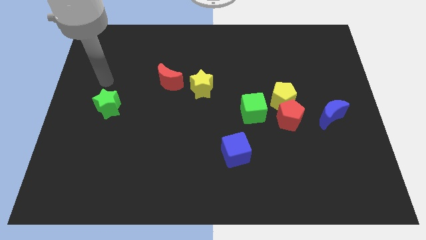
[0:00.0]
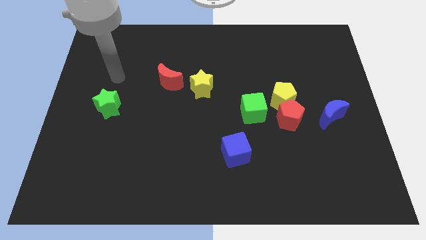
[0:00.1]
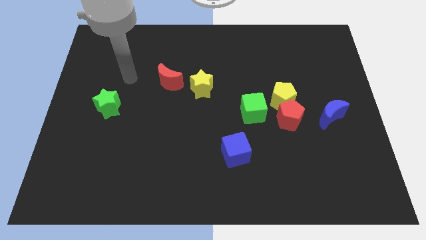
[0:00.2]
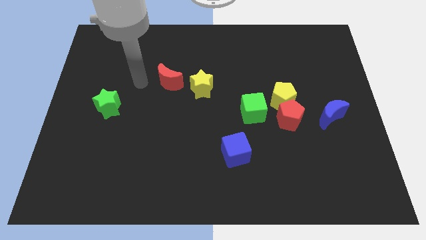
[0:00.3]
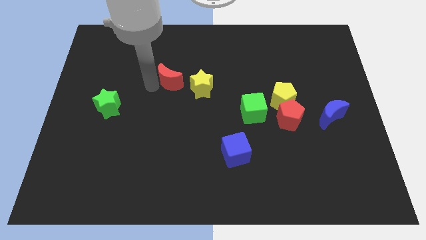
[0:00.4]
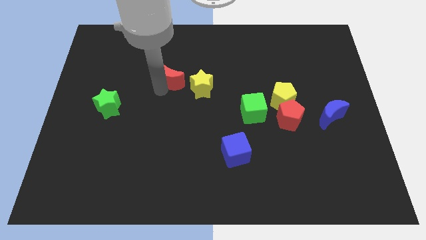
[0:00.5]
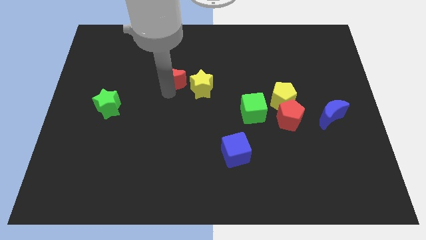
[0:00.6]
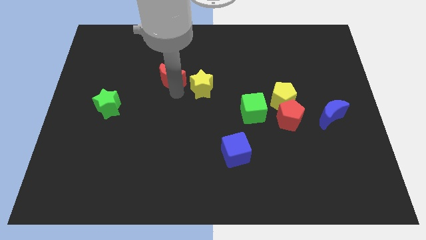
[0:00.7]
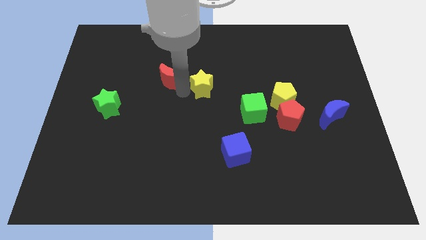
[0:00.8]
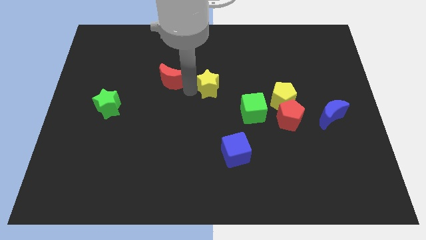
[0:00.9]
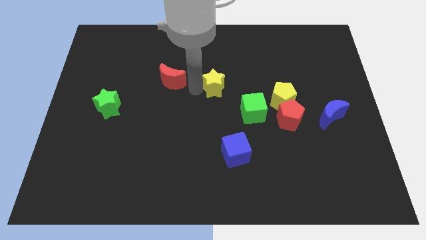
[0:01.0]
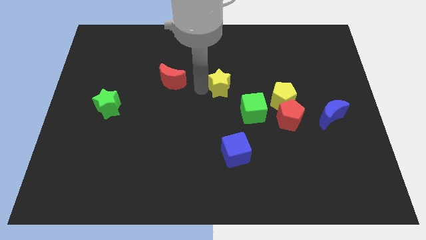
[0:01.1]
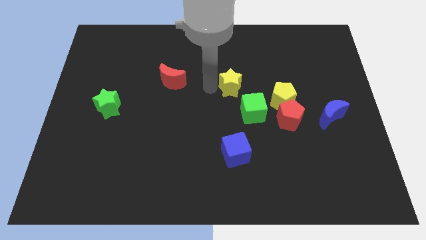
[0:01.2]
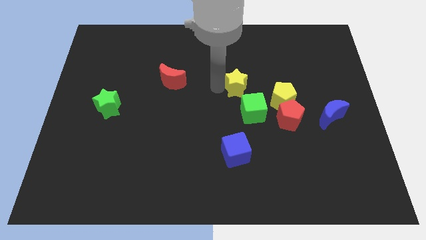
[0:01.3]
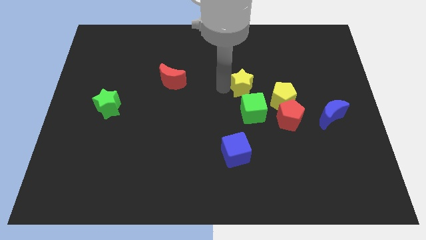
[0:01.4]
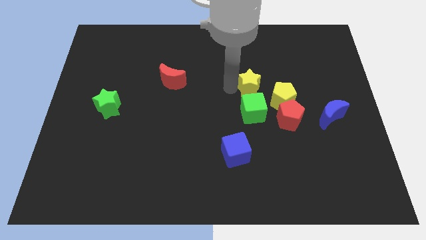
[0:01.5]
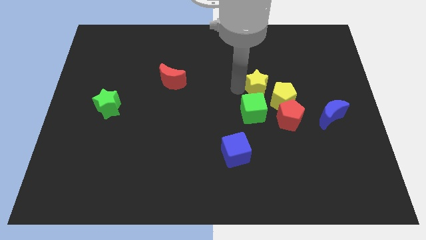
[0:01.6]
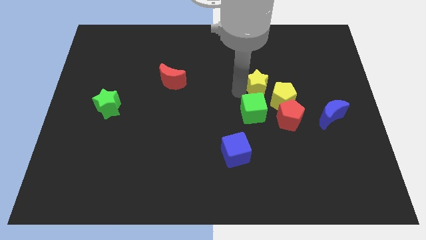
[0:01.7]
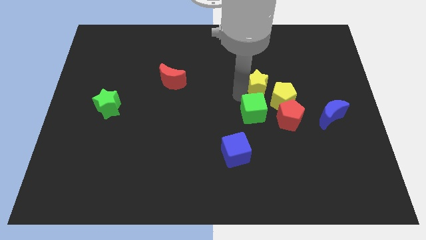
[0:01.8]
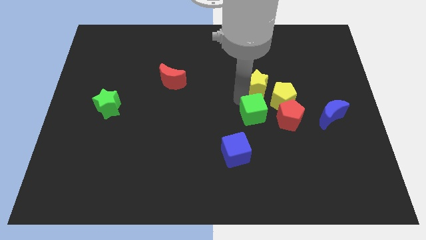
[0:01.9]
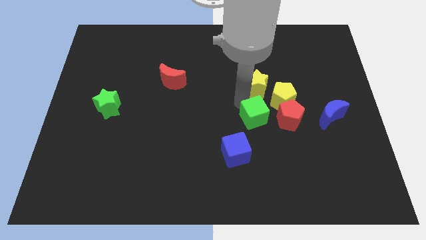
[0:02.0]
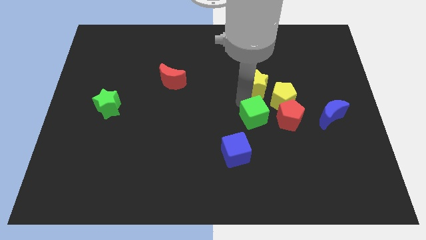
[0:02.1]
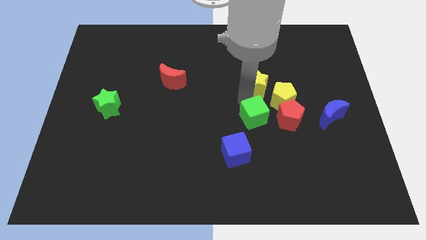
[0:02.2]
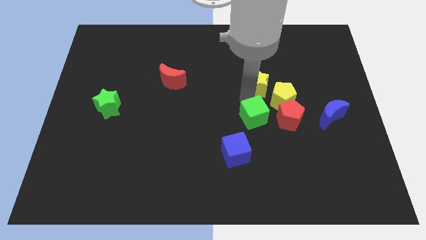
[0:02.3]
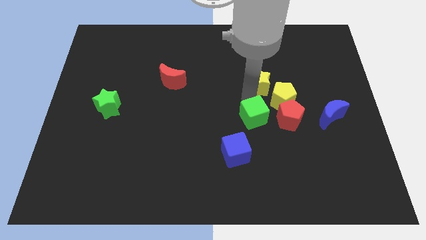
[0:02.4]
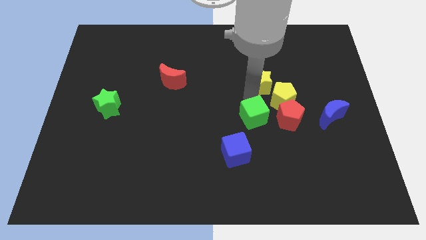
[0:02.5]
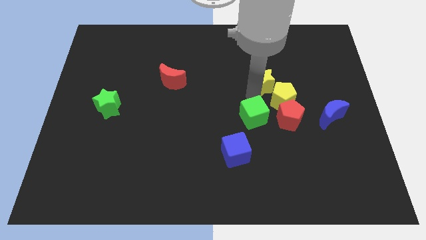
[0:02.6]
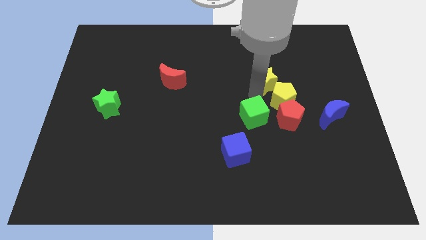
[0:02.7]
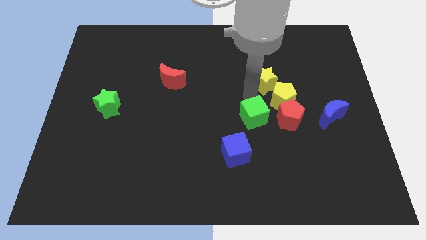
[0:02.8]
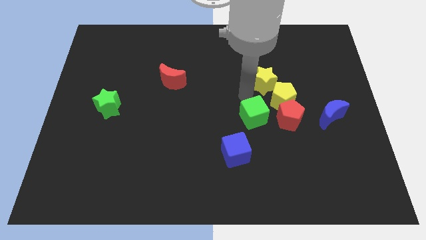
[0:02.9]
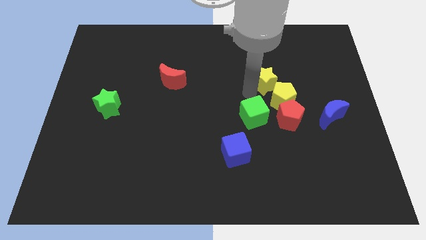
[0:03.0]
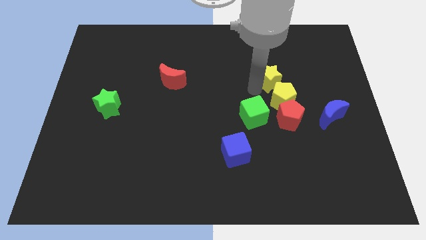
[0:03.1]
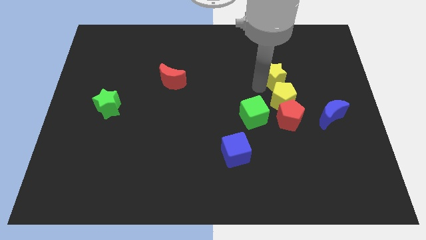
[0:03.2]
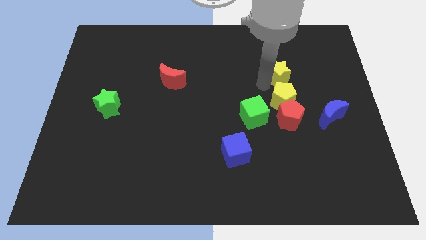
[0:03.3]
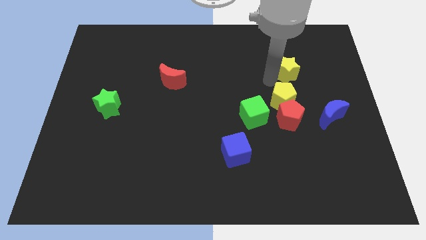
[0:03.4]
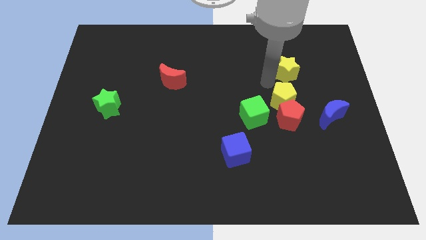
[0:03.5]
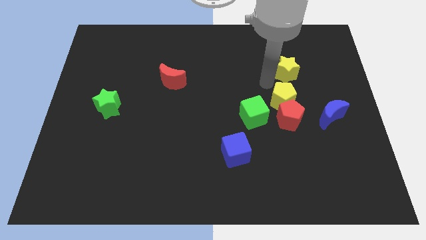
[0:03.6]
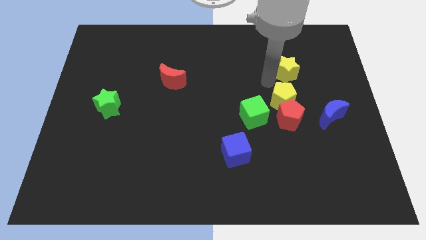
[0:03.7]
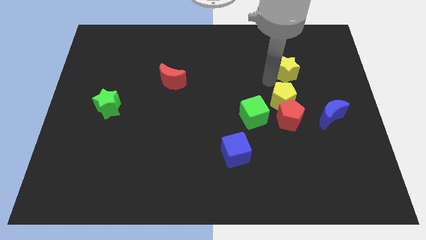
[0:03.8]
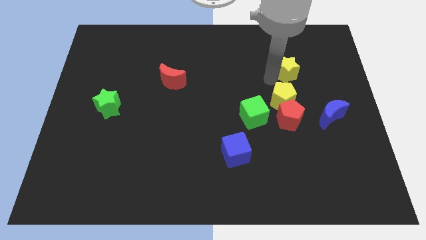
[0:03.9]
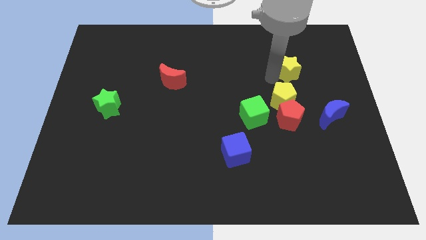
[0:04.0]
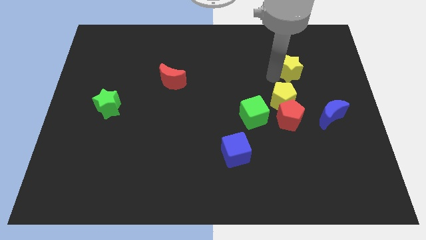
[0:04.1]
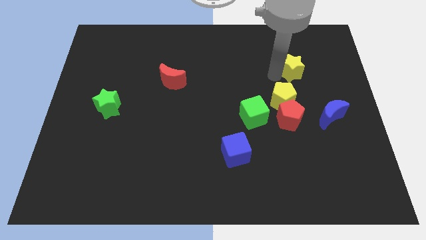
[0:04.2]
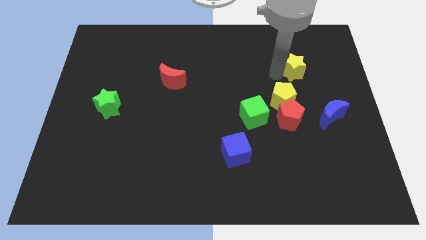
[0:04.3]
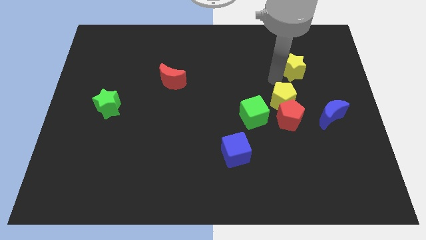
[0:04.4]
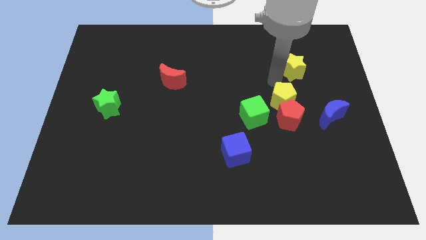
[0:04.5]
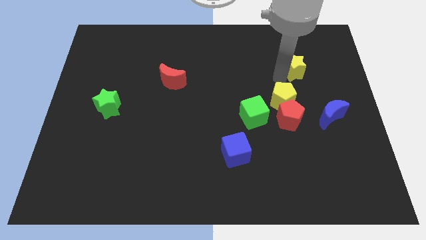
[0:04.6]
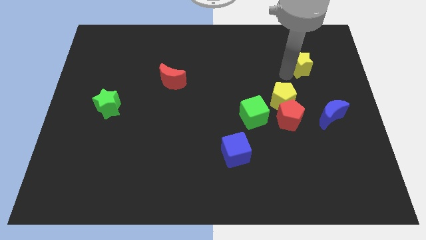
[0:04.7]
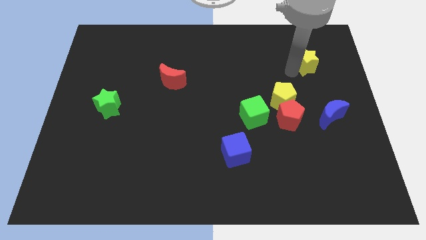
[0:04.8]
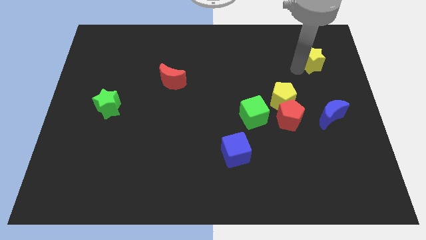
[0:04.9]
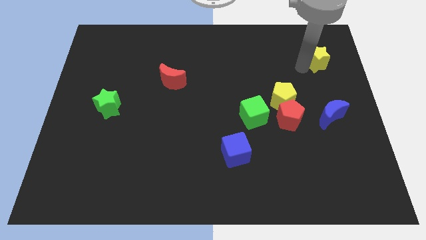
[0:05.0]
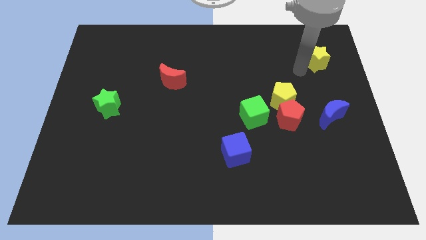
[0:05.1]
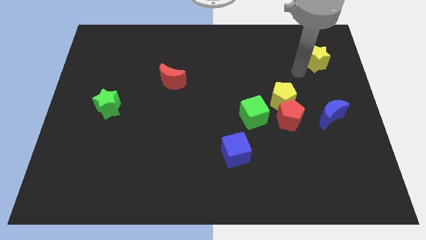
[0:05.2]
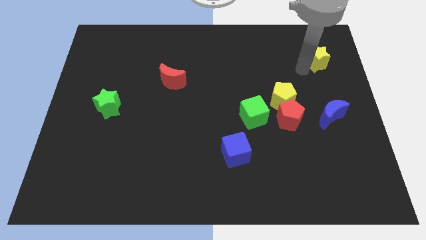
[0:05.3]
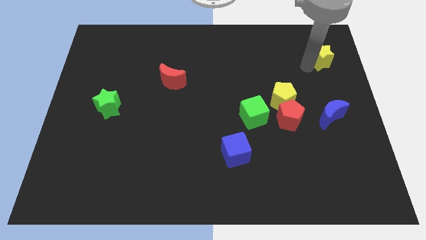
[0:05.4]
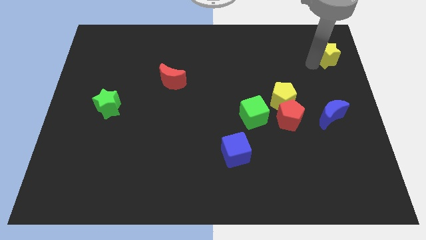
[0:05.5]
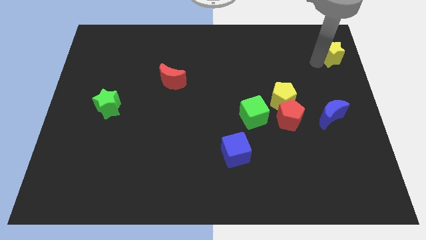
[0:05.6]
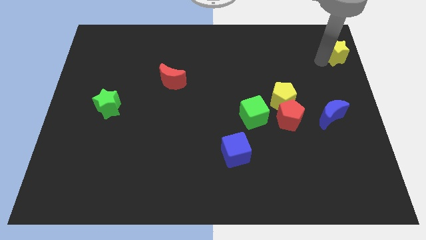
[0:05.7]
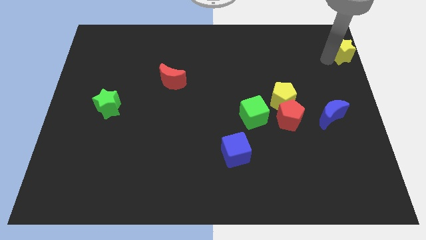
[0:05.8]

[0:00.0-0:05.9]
slide the yellow star to the top right

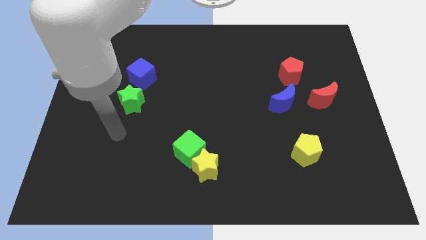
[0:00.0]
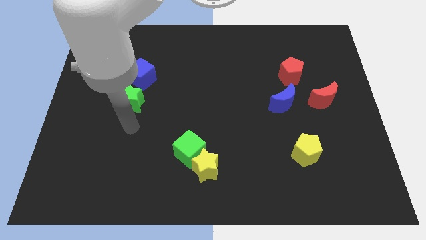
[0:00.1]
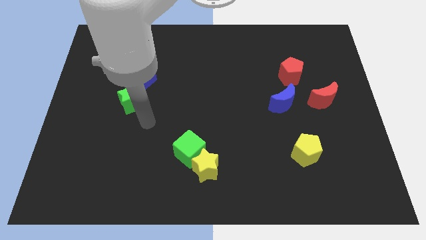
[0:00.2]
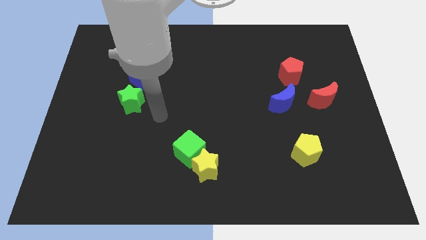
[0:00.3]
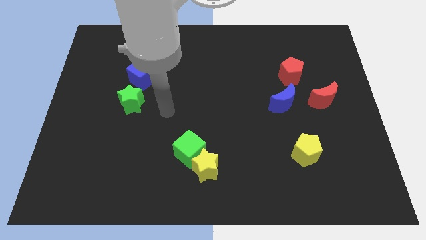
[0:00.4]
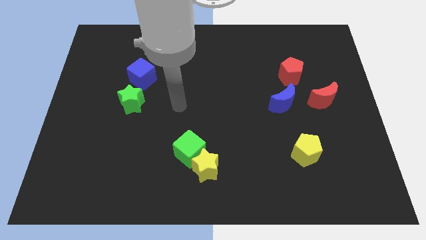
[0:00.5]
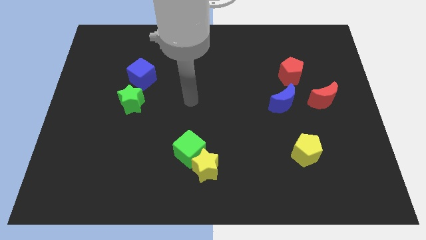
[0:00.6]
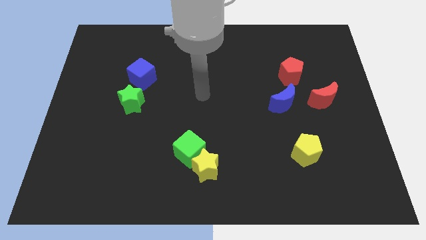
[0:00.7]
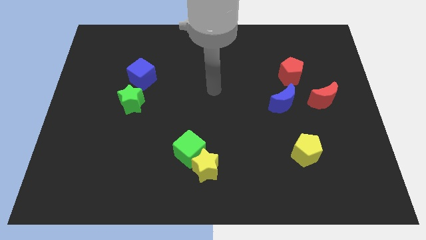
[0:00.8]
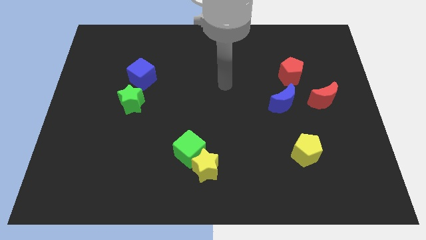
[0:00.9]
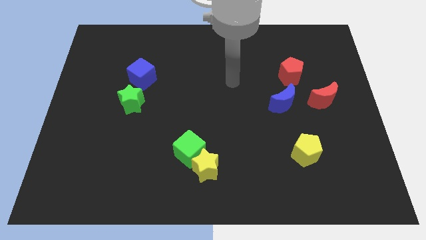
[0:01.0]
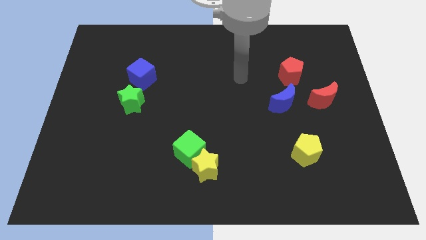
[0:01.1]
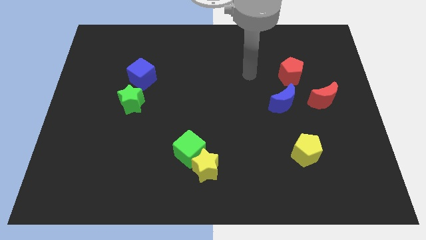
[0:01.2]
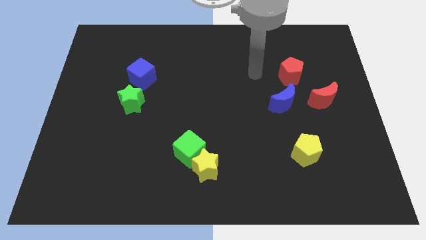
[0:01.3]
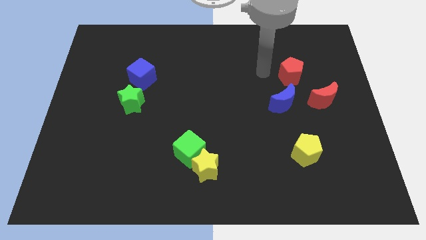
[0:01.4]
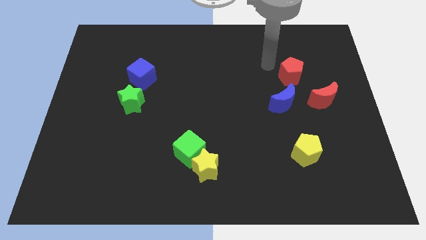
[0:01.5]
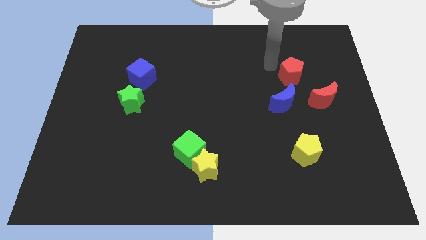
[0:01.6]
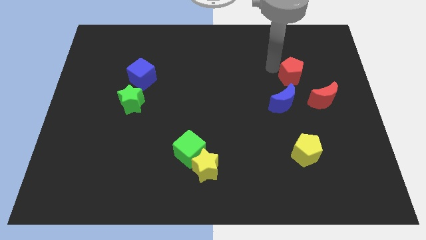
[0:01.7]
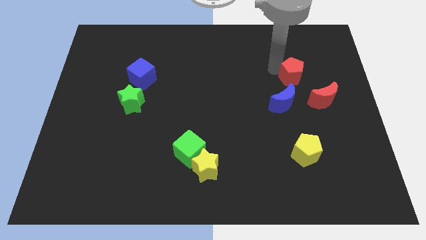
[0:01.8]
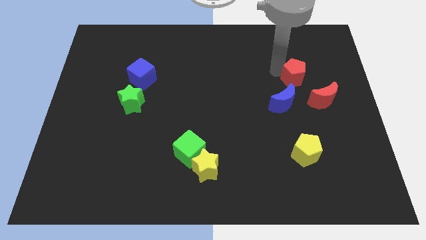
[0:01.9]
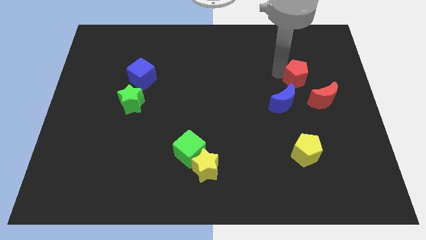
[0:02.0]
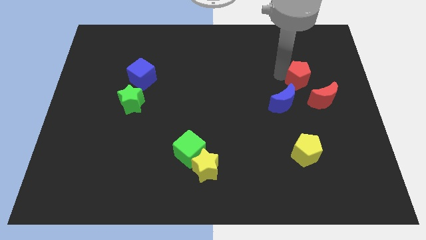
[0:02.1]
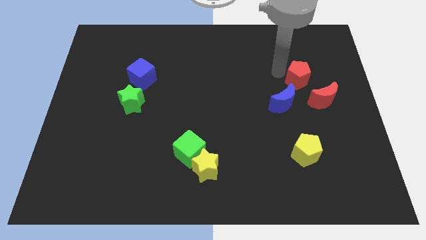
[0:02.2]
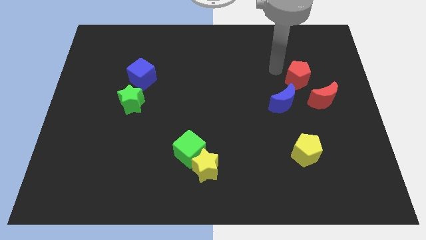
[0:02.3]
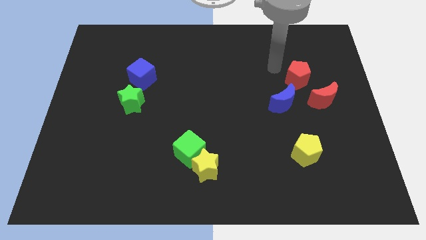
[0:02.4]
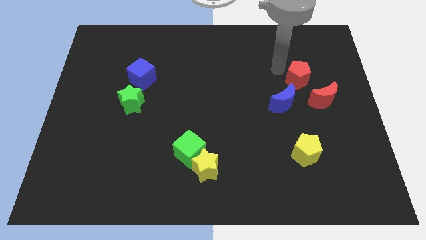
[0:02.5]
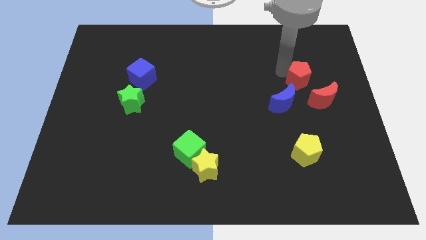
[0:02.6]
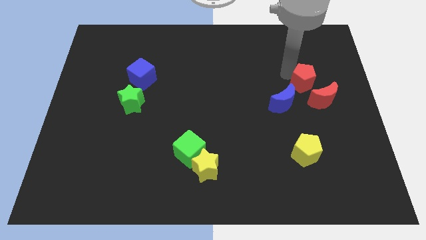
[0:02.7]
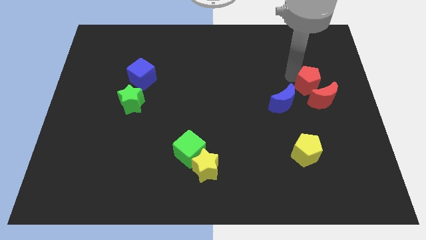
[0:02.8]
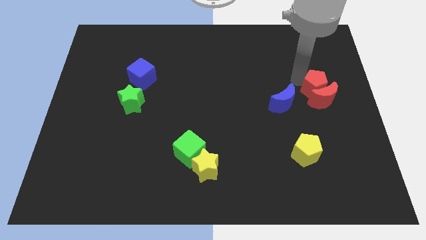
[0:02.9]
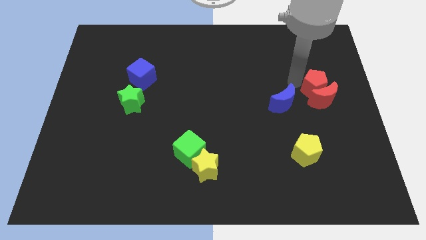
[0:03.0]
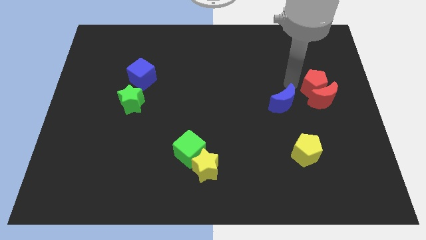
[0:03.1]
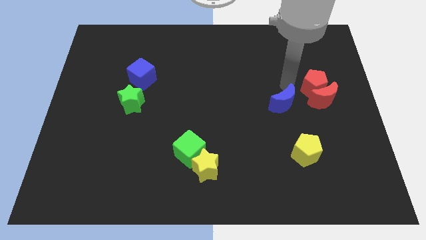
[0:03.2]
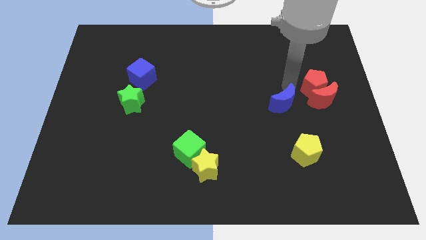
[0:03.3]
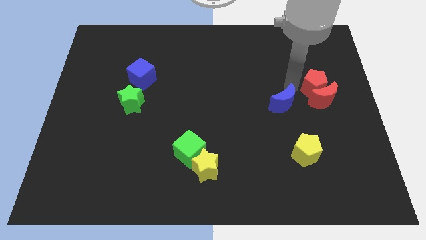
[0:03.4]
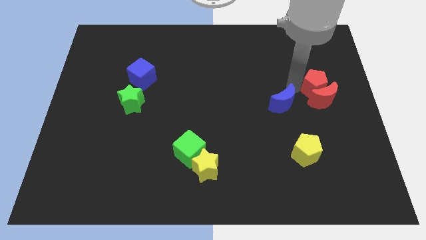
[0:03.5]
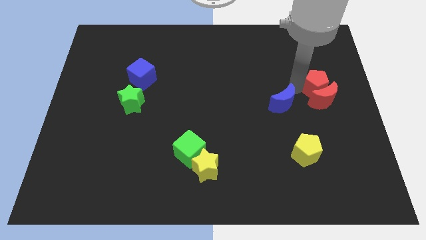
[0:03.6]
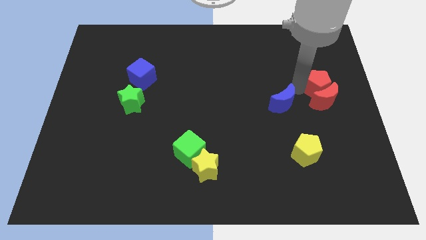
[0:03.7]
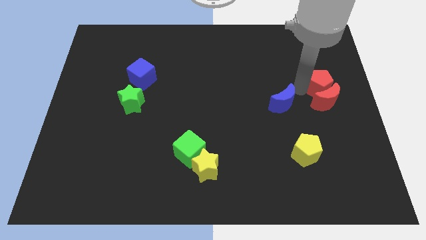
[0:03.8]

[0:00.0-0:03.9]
put the red pentagon to the center right
